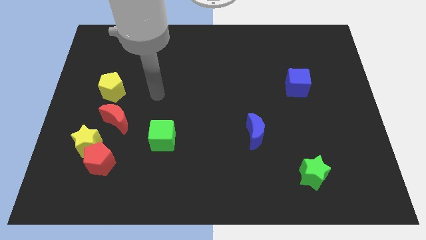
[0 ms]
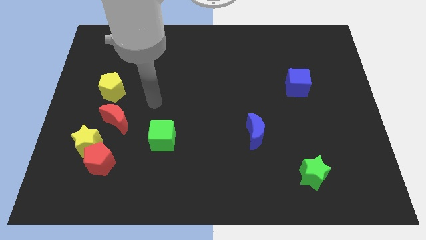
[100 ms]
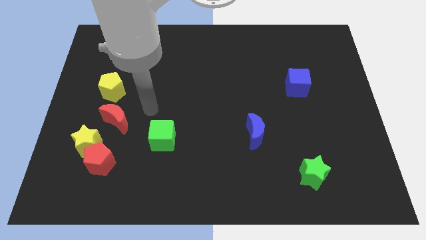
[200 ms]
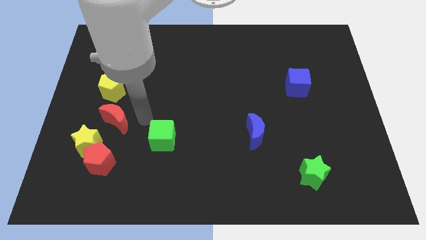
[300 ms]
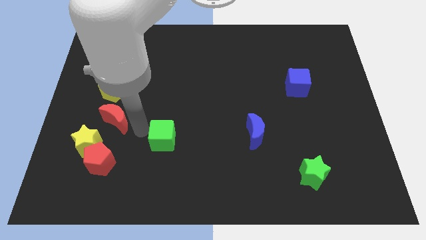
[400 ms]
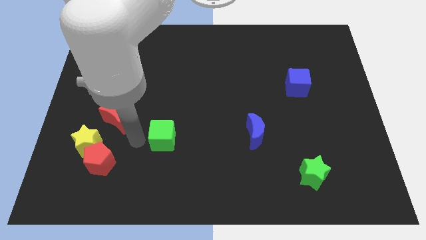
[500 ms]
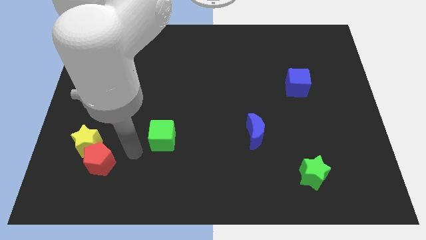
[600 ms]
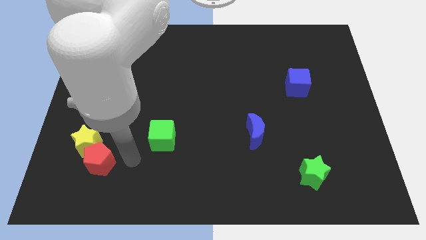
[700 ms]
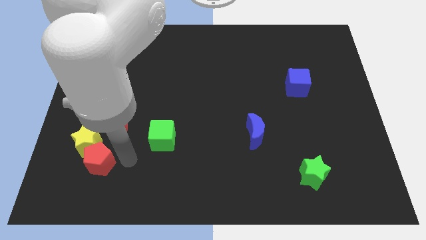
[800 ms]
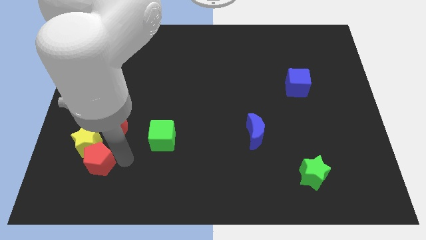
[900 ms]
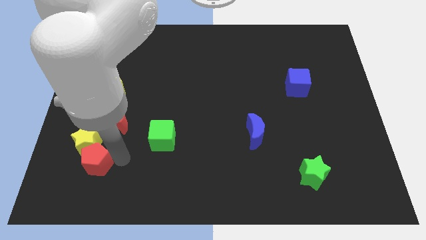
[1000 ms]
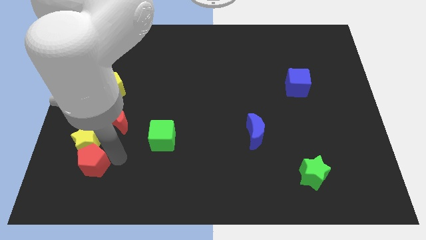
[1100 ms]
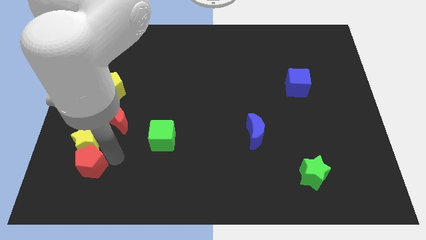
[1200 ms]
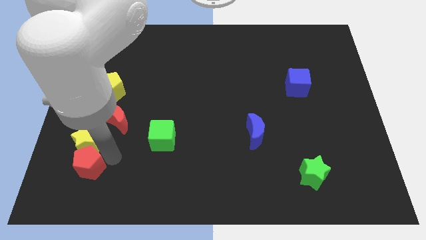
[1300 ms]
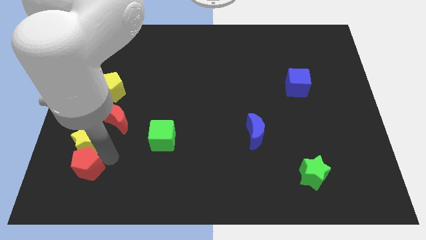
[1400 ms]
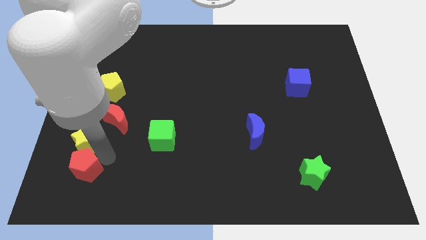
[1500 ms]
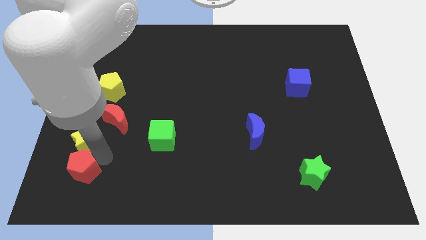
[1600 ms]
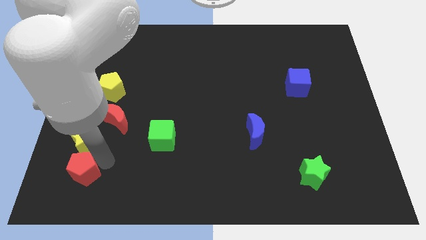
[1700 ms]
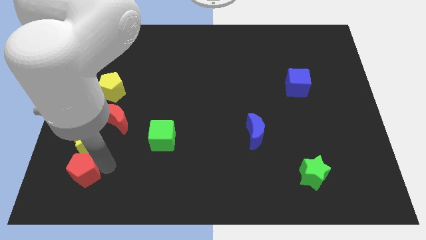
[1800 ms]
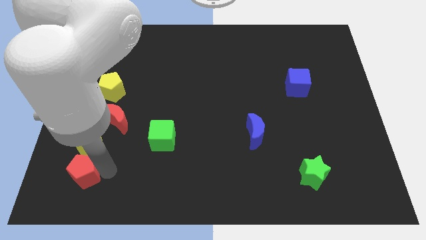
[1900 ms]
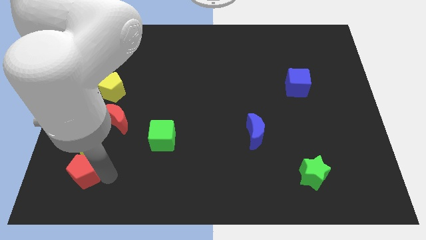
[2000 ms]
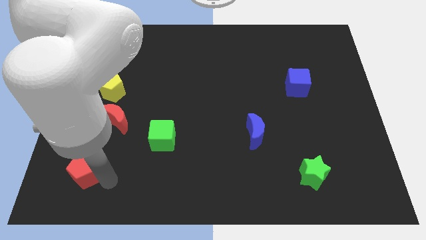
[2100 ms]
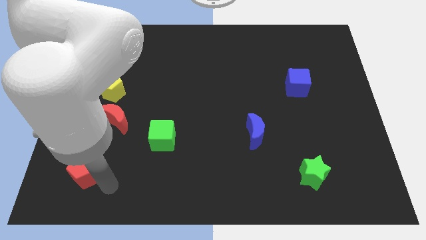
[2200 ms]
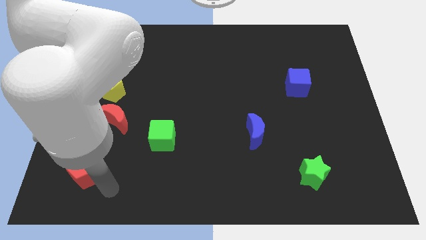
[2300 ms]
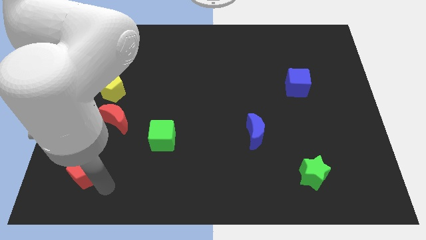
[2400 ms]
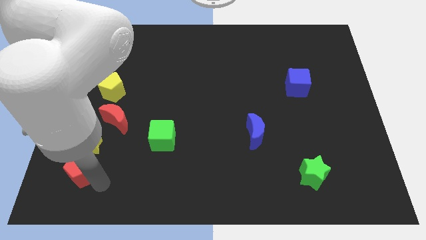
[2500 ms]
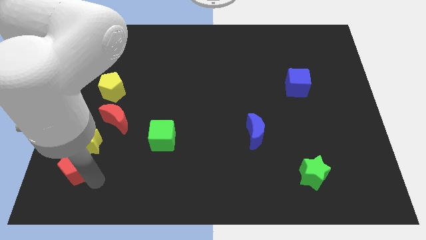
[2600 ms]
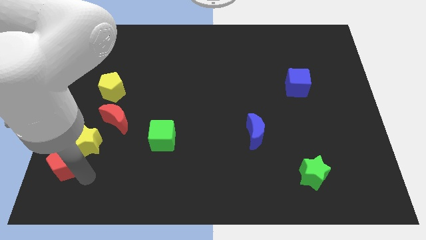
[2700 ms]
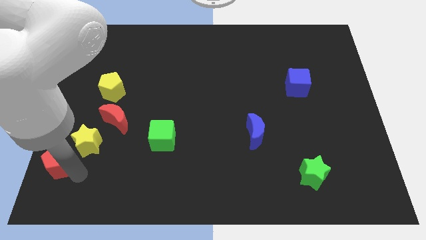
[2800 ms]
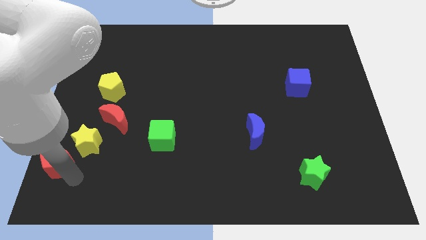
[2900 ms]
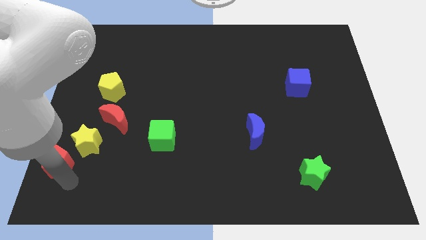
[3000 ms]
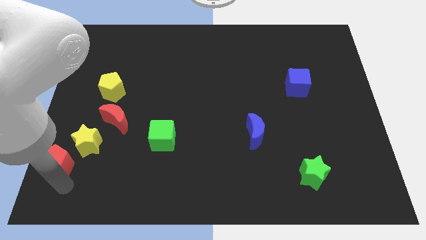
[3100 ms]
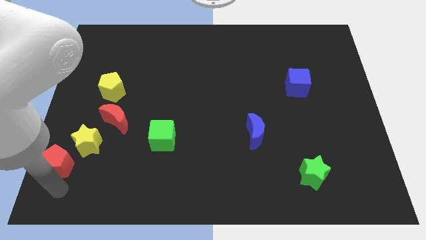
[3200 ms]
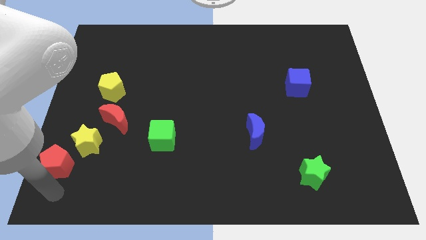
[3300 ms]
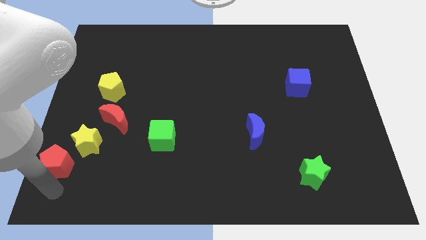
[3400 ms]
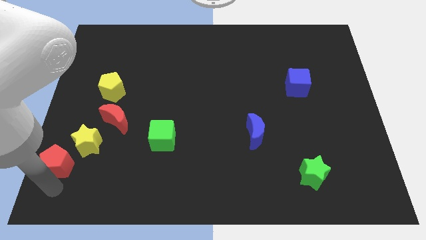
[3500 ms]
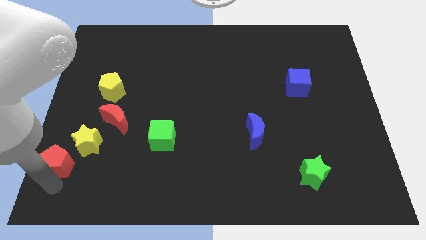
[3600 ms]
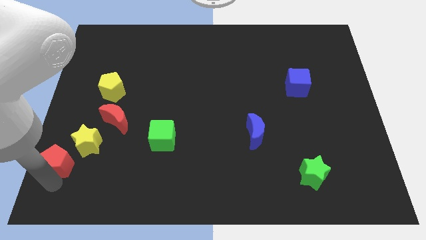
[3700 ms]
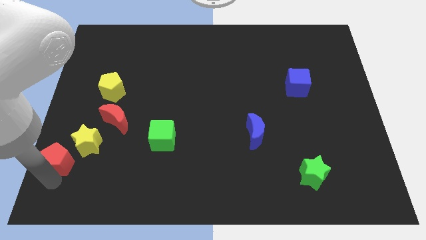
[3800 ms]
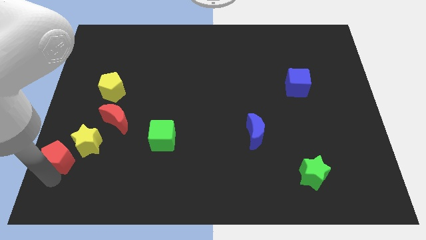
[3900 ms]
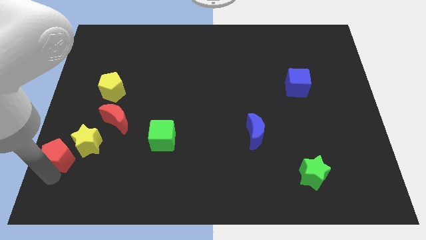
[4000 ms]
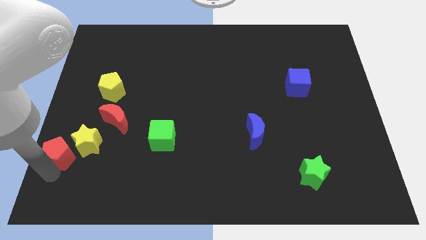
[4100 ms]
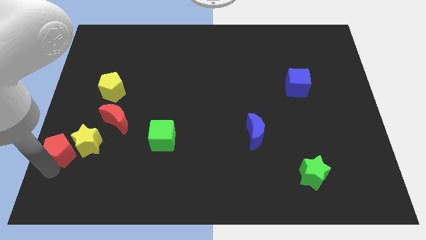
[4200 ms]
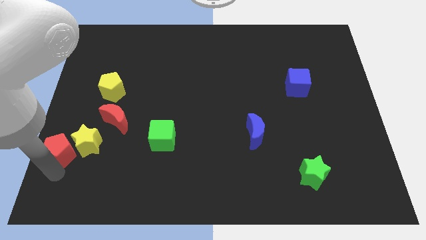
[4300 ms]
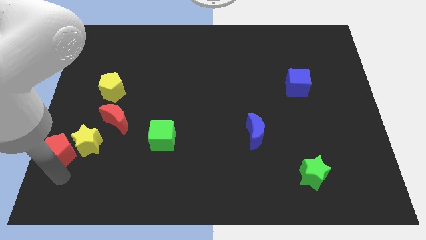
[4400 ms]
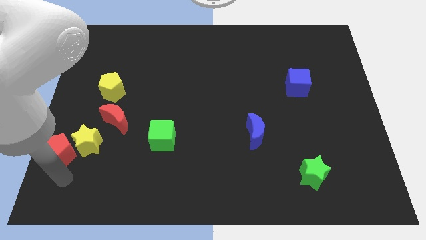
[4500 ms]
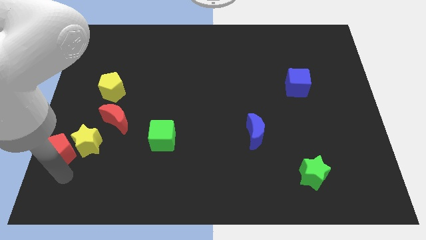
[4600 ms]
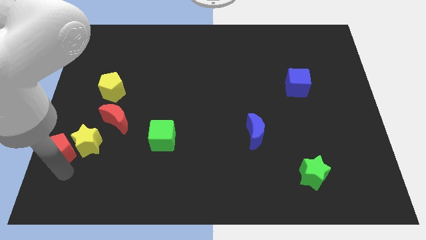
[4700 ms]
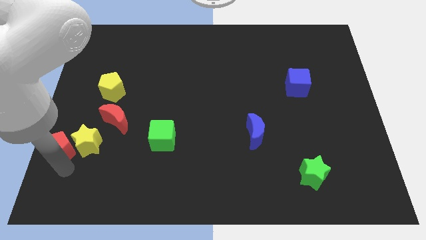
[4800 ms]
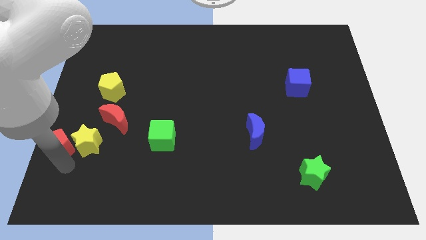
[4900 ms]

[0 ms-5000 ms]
put the red pentagon to the left side of the board

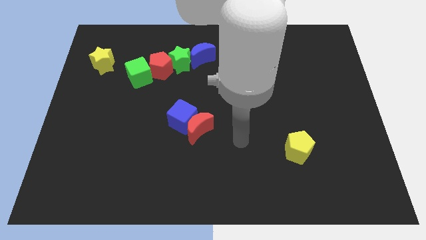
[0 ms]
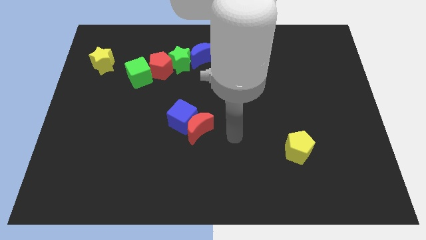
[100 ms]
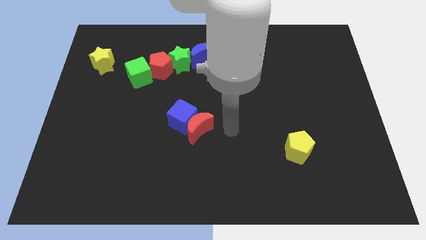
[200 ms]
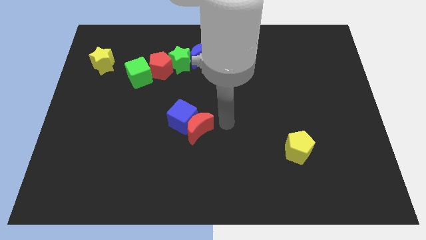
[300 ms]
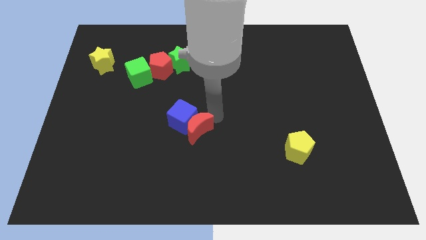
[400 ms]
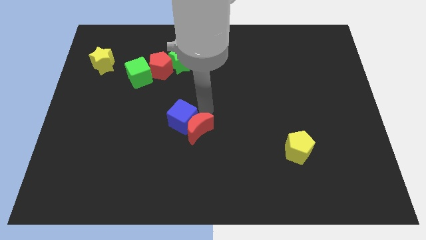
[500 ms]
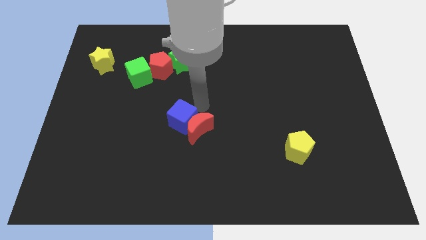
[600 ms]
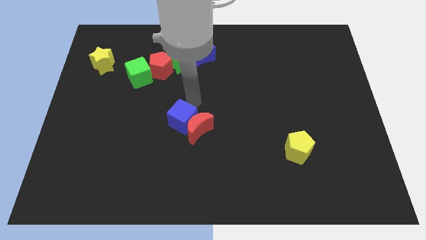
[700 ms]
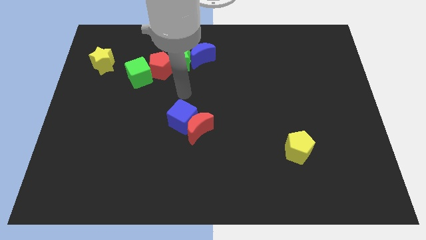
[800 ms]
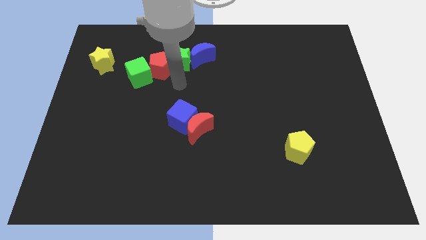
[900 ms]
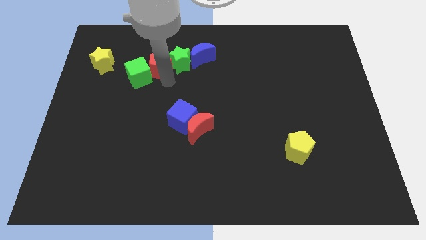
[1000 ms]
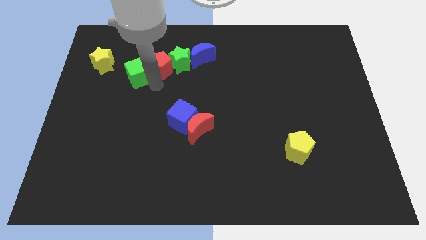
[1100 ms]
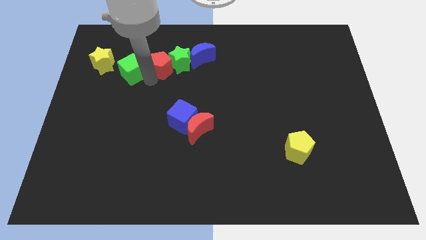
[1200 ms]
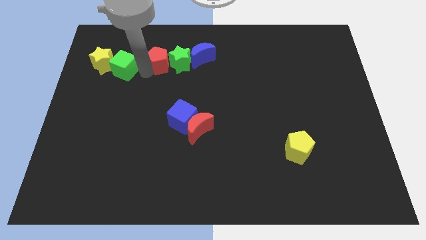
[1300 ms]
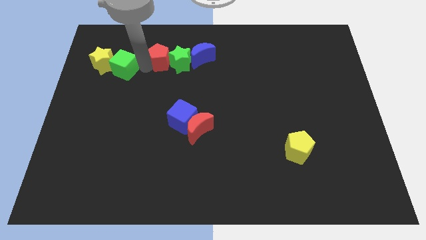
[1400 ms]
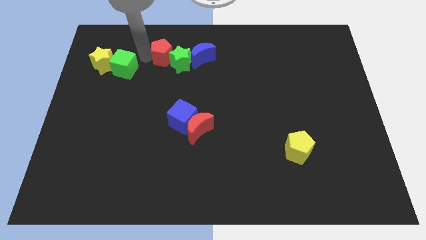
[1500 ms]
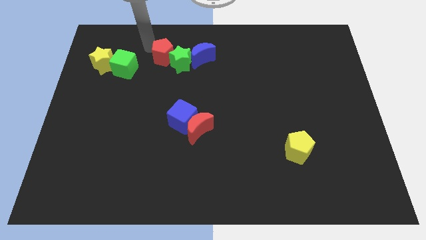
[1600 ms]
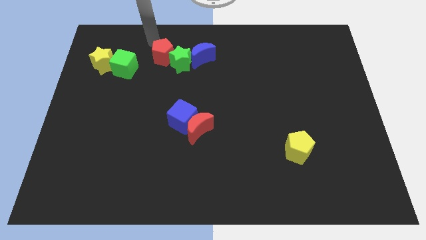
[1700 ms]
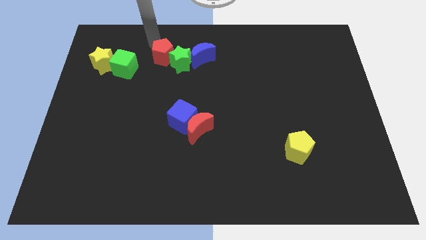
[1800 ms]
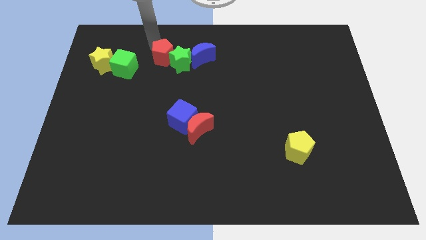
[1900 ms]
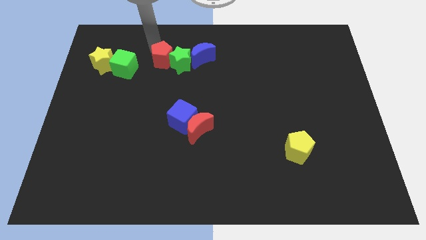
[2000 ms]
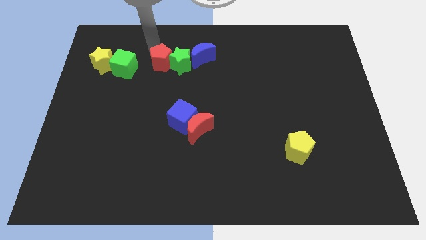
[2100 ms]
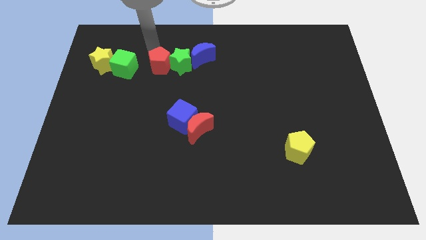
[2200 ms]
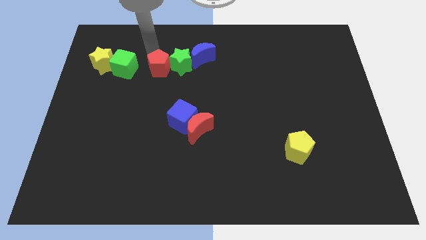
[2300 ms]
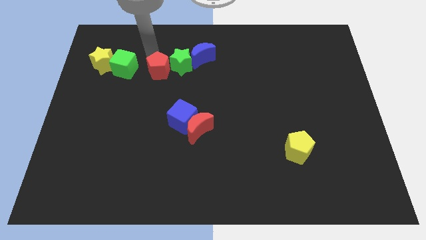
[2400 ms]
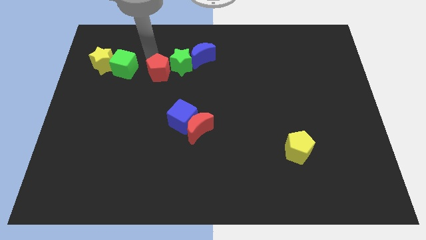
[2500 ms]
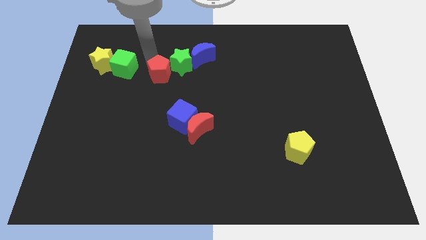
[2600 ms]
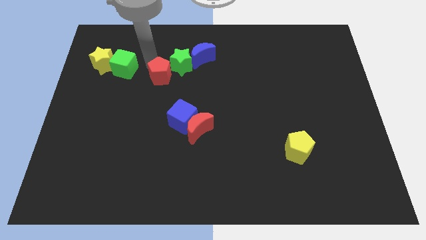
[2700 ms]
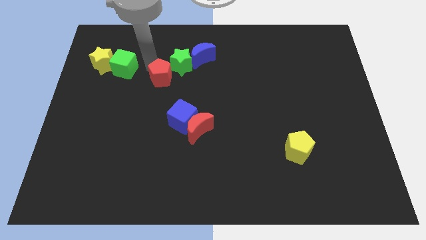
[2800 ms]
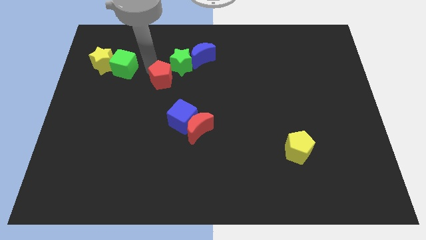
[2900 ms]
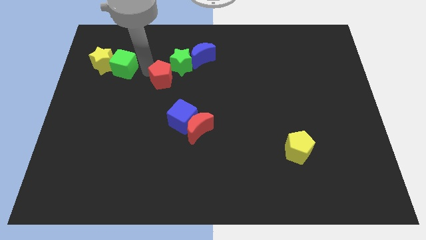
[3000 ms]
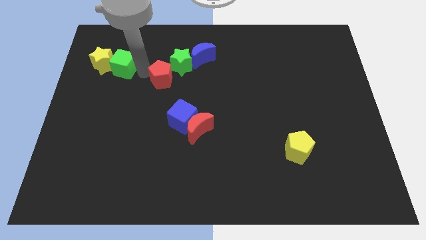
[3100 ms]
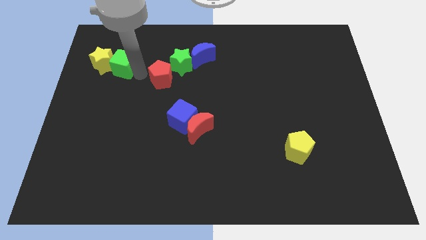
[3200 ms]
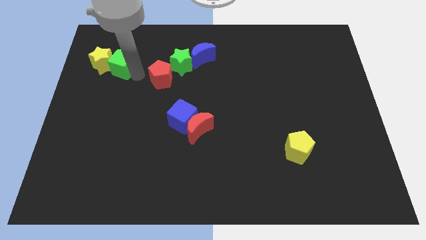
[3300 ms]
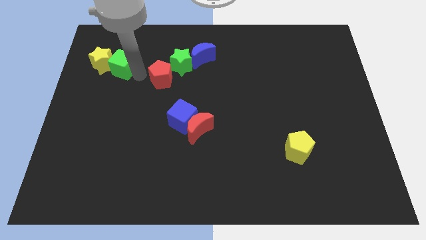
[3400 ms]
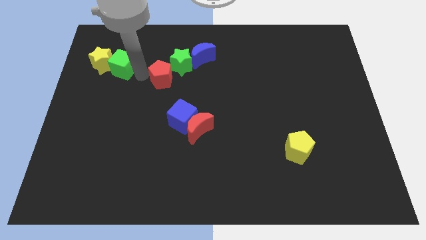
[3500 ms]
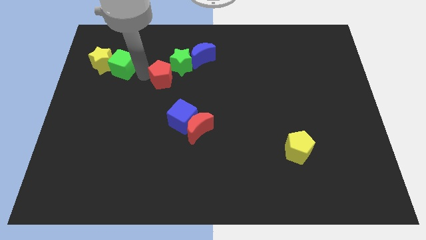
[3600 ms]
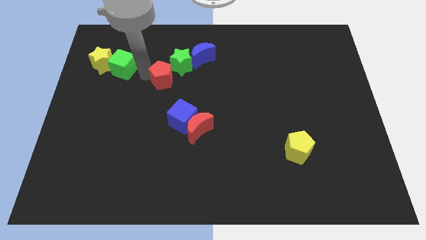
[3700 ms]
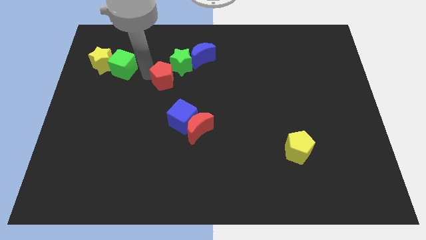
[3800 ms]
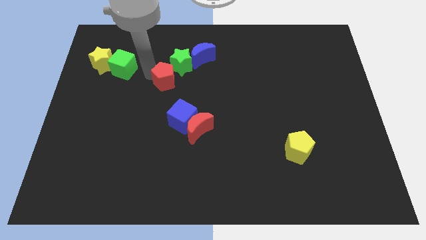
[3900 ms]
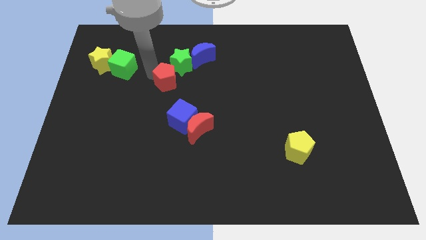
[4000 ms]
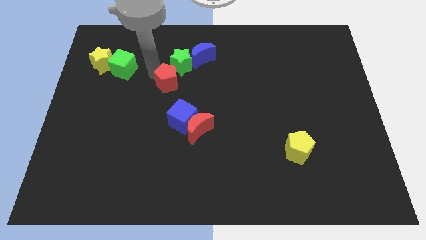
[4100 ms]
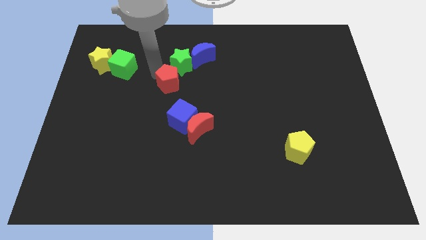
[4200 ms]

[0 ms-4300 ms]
put the red pentagon to the center of the board
